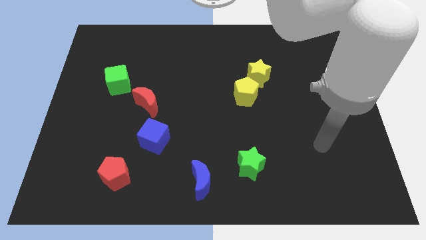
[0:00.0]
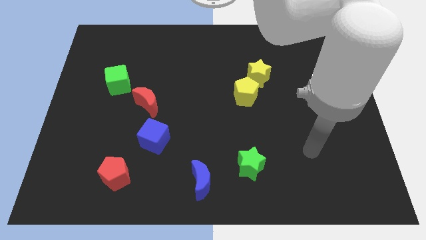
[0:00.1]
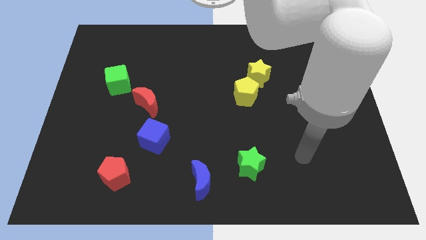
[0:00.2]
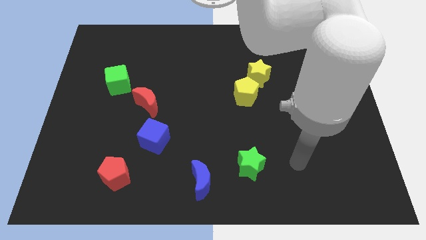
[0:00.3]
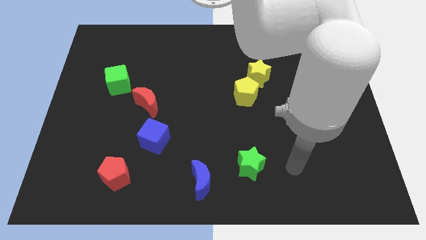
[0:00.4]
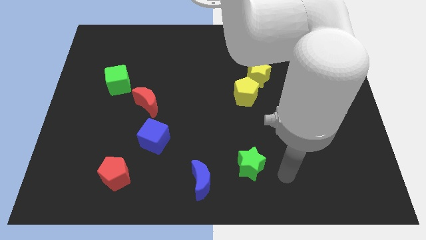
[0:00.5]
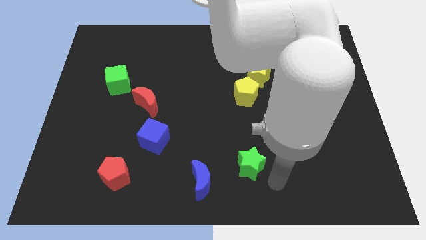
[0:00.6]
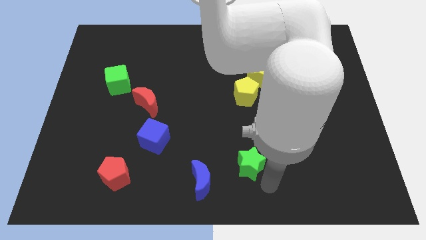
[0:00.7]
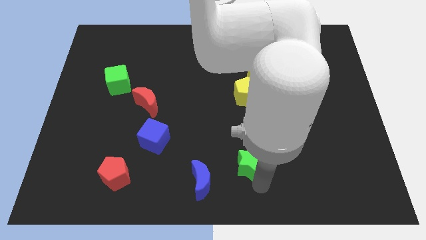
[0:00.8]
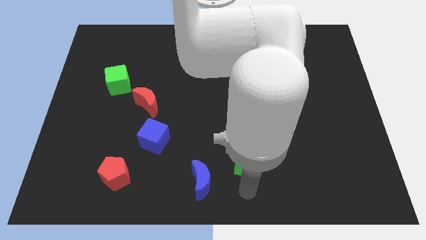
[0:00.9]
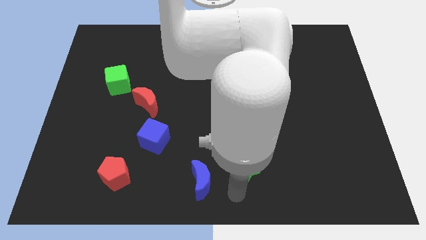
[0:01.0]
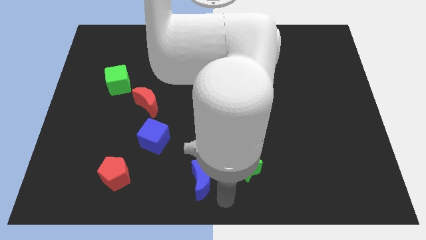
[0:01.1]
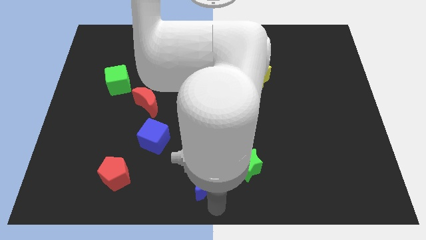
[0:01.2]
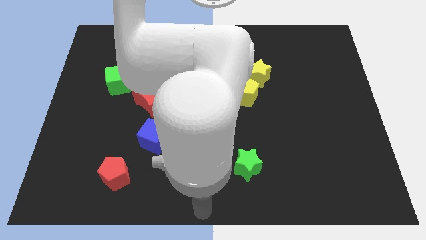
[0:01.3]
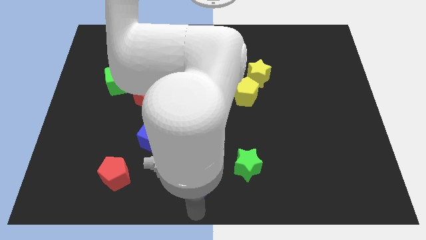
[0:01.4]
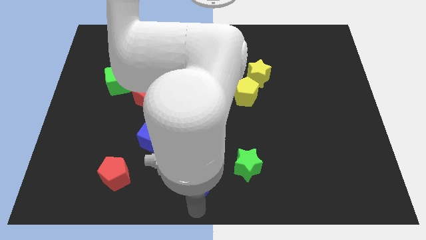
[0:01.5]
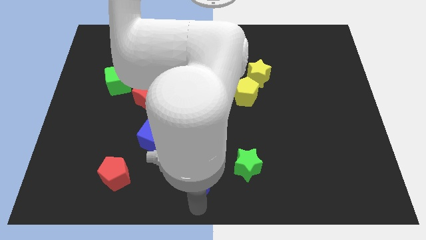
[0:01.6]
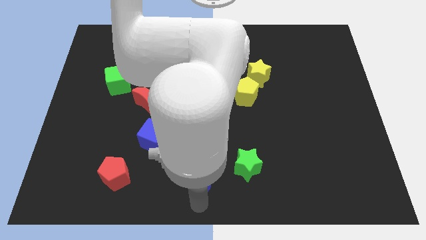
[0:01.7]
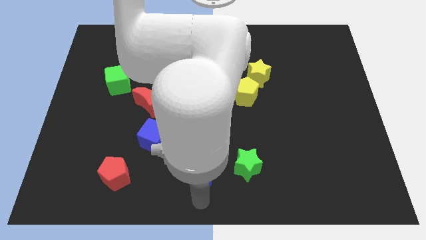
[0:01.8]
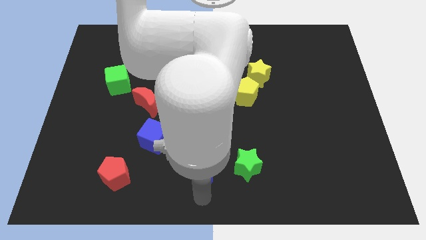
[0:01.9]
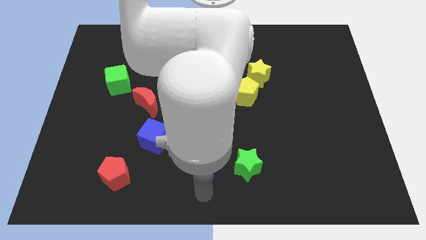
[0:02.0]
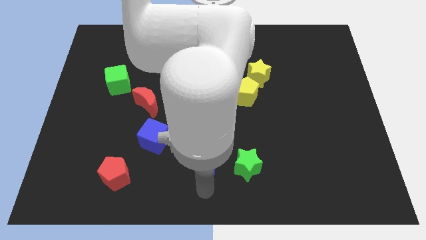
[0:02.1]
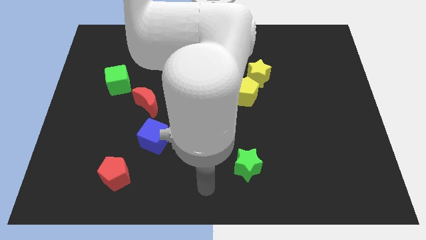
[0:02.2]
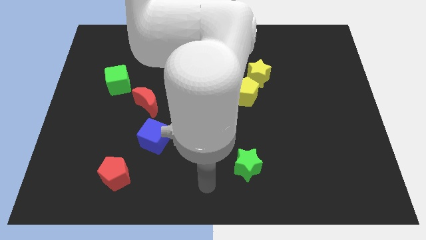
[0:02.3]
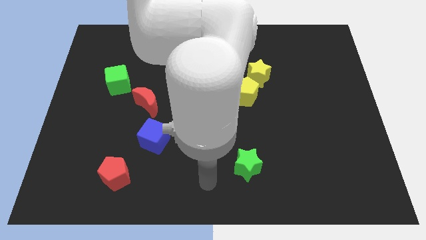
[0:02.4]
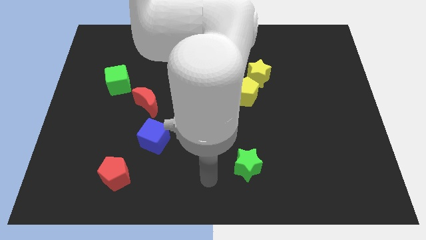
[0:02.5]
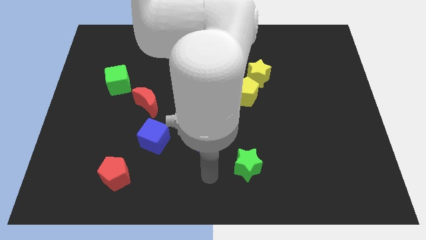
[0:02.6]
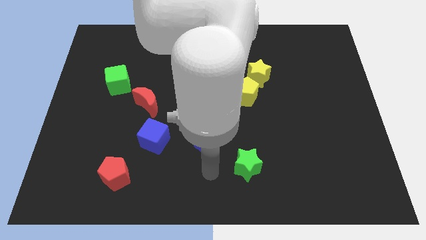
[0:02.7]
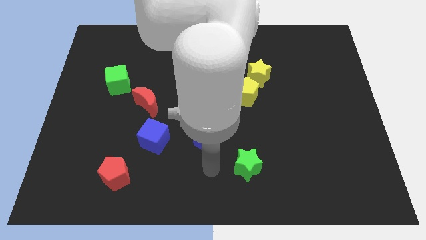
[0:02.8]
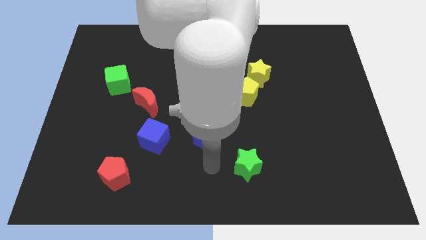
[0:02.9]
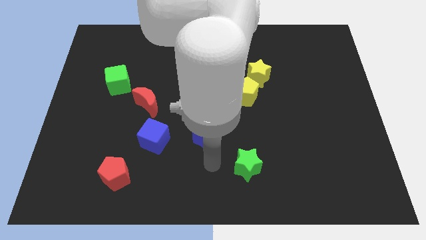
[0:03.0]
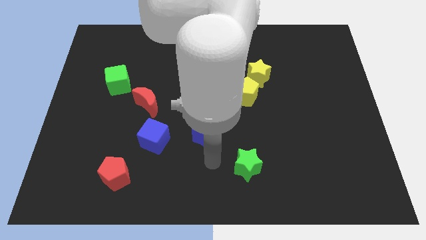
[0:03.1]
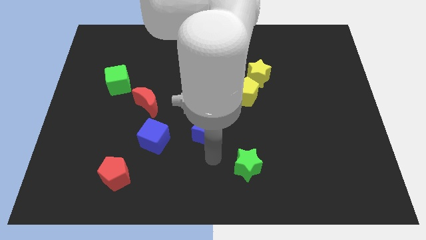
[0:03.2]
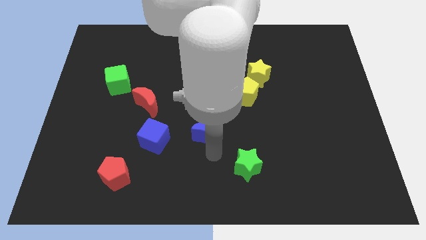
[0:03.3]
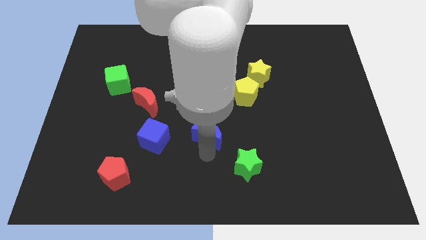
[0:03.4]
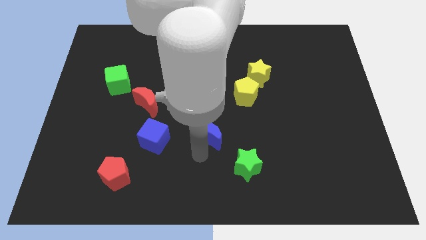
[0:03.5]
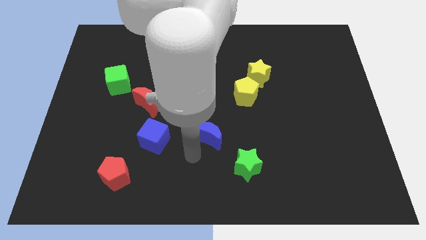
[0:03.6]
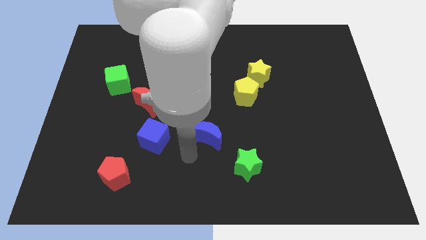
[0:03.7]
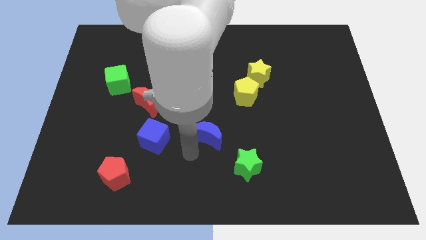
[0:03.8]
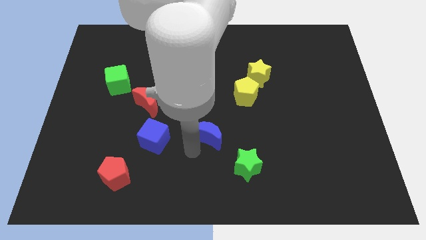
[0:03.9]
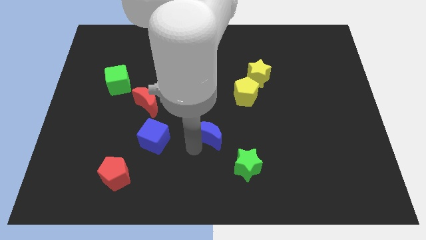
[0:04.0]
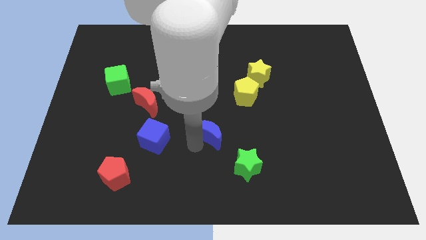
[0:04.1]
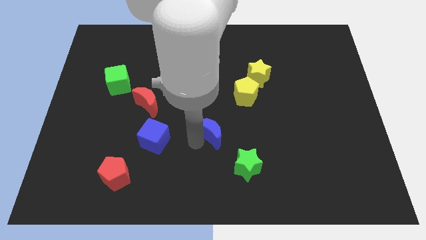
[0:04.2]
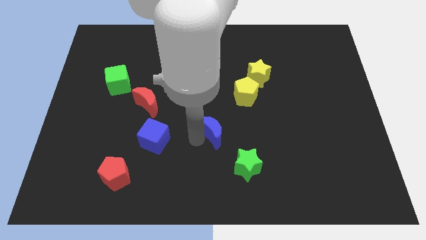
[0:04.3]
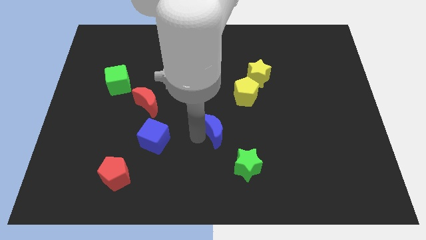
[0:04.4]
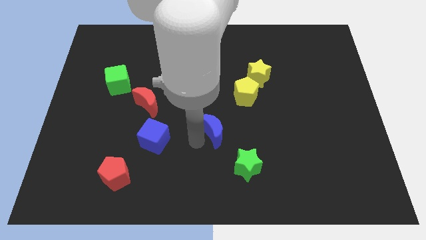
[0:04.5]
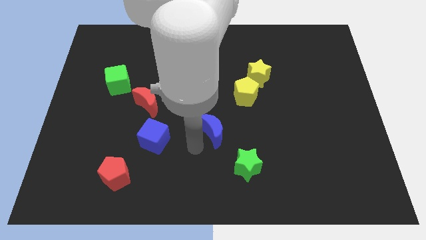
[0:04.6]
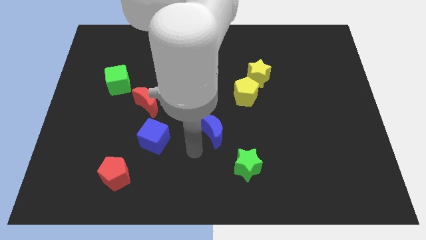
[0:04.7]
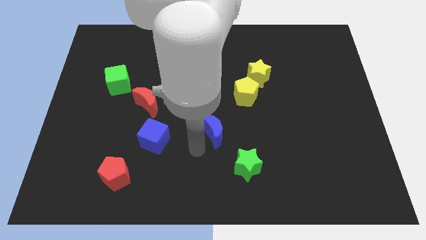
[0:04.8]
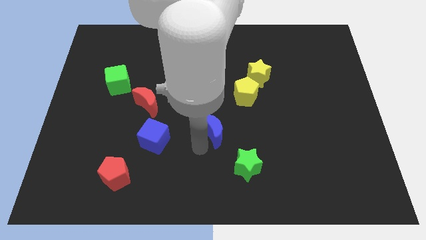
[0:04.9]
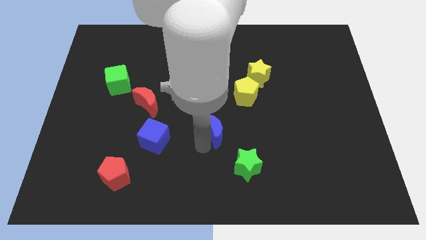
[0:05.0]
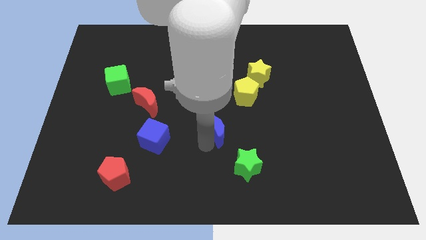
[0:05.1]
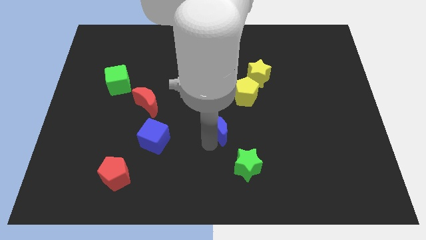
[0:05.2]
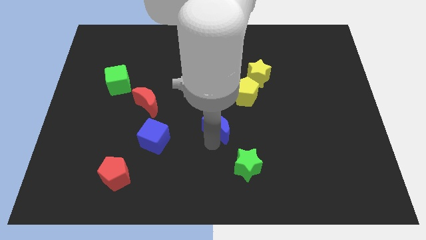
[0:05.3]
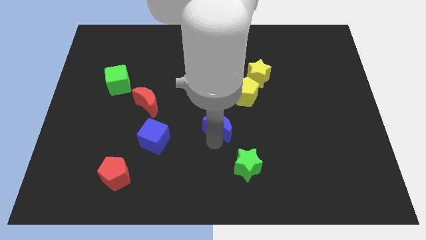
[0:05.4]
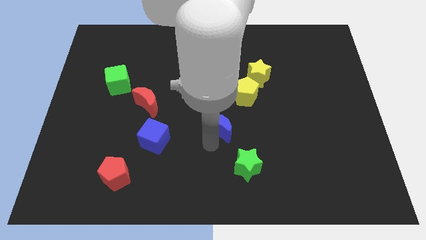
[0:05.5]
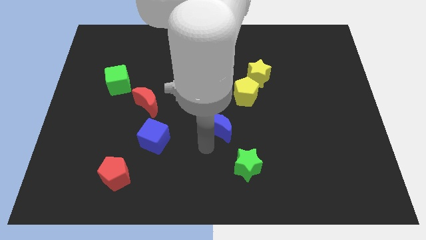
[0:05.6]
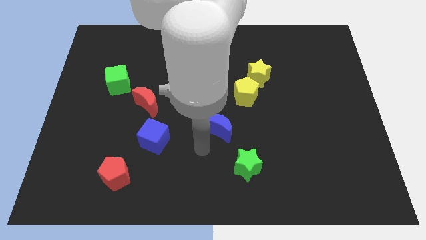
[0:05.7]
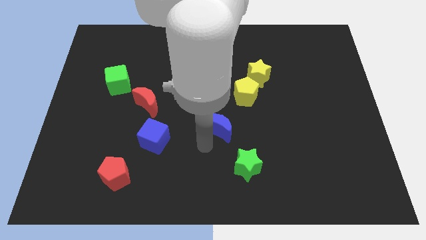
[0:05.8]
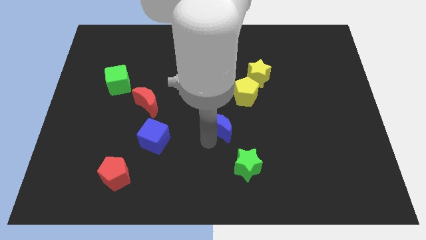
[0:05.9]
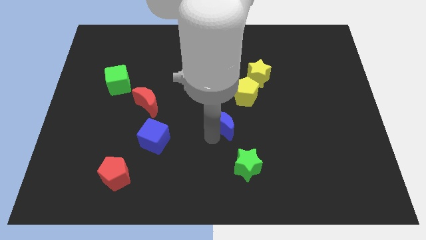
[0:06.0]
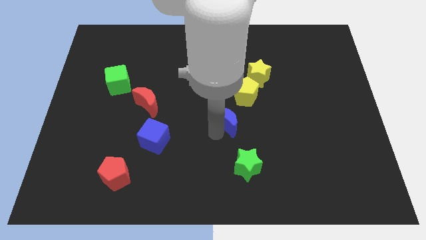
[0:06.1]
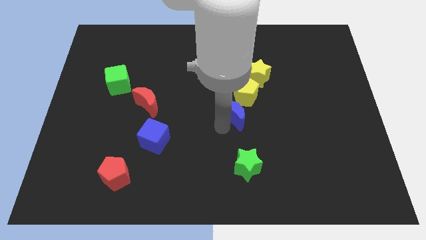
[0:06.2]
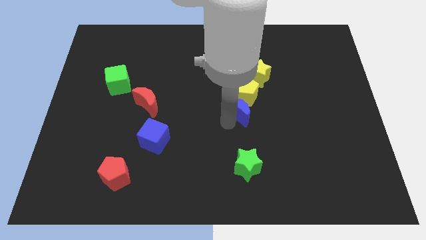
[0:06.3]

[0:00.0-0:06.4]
slide the blue moon to the yellow pentagon
